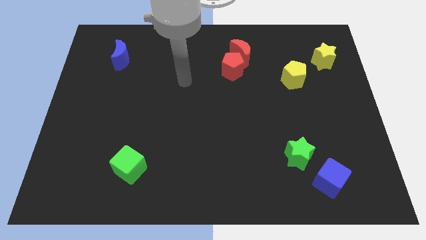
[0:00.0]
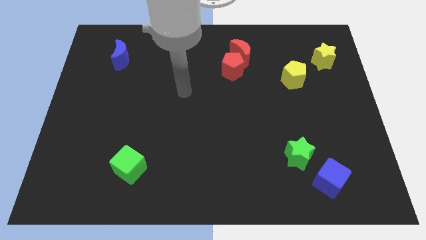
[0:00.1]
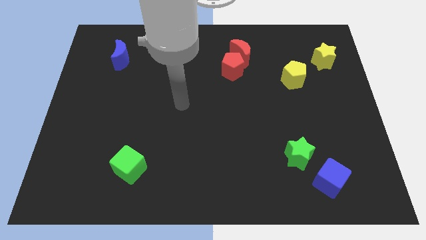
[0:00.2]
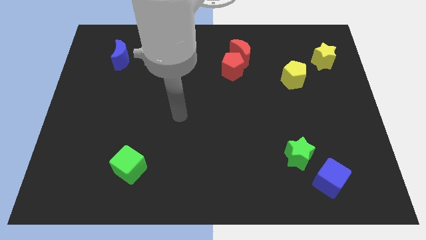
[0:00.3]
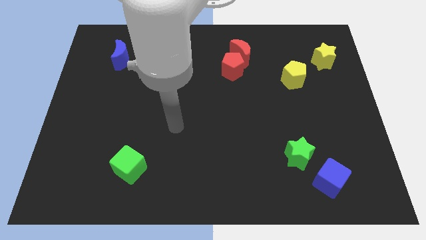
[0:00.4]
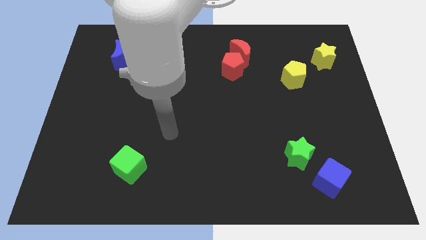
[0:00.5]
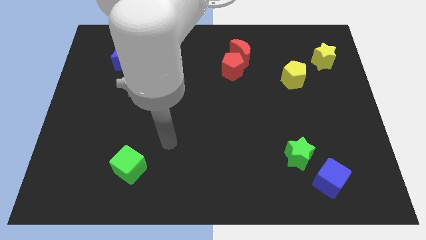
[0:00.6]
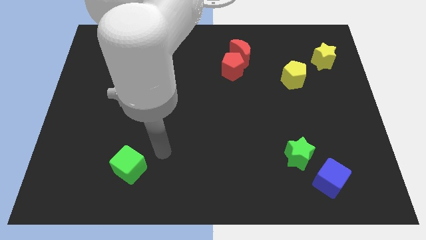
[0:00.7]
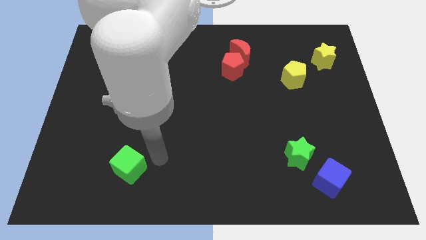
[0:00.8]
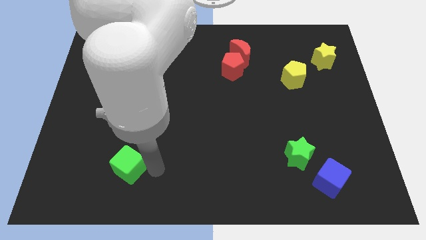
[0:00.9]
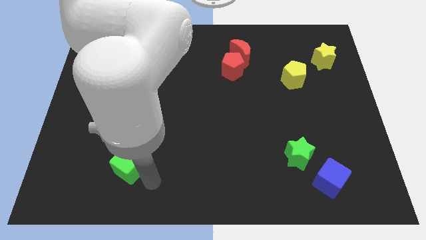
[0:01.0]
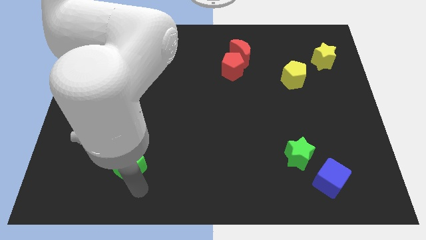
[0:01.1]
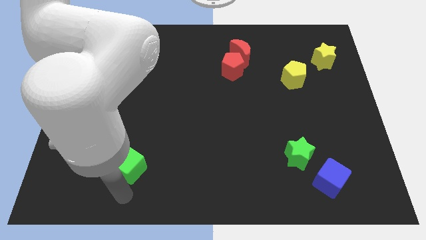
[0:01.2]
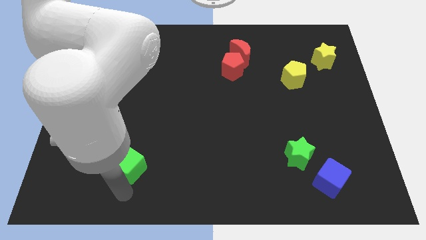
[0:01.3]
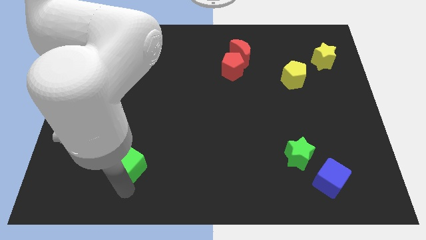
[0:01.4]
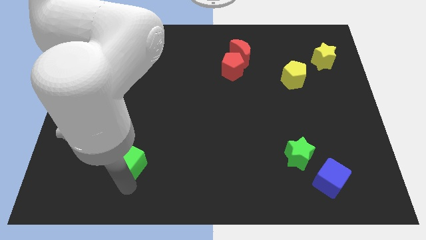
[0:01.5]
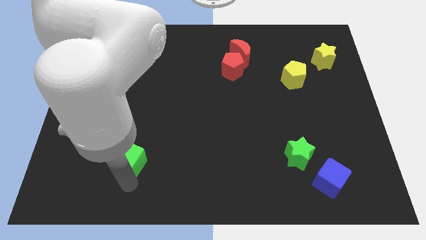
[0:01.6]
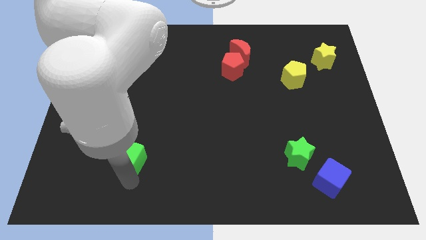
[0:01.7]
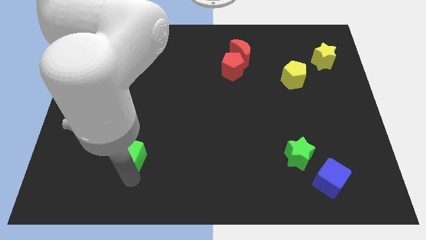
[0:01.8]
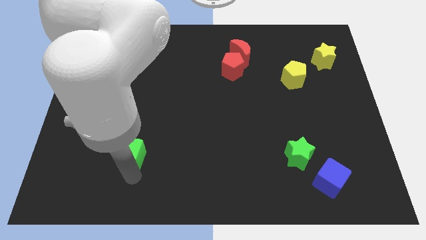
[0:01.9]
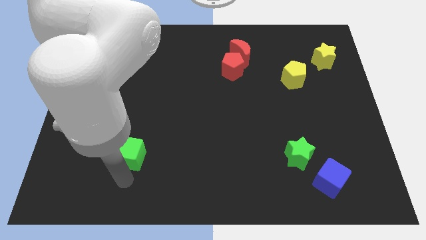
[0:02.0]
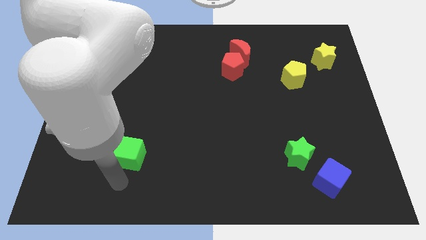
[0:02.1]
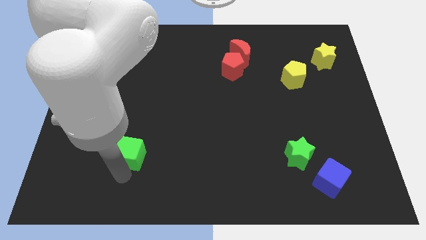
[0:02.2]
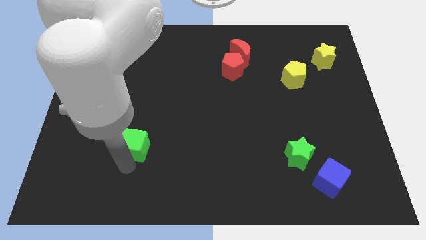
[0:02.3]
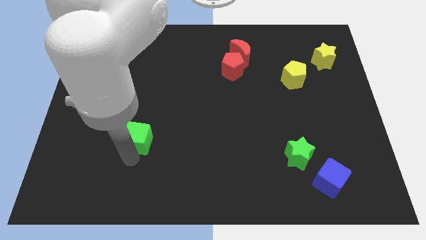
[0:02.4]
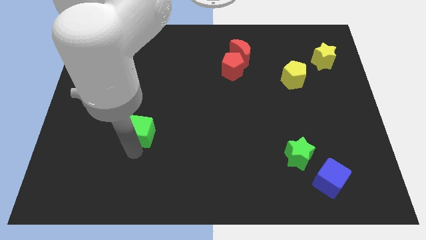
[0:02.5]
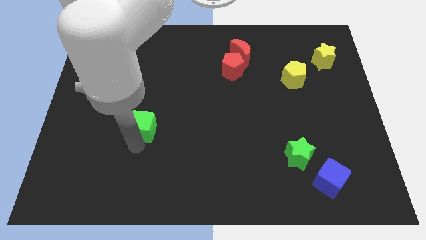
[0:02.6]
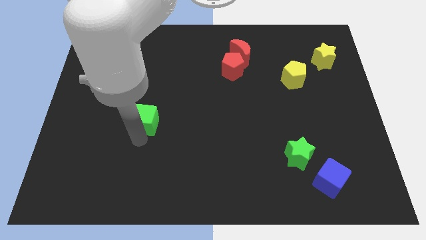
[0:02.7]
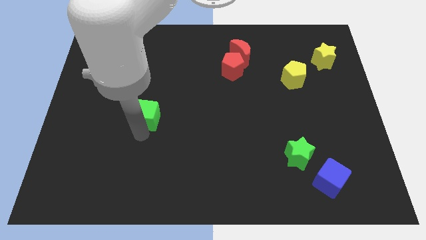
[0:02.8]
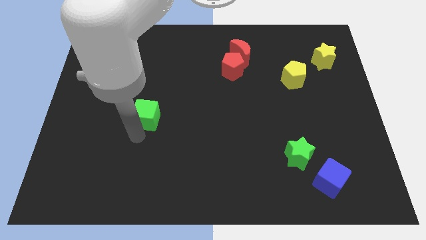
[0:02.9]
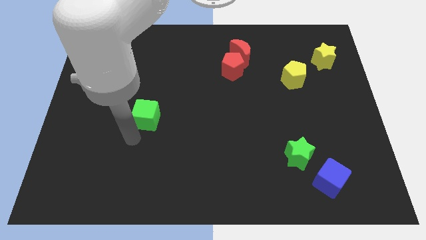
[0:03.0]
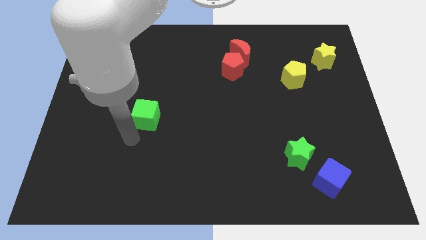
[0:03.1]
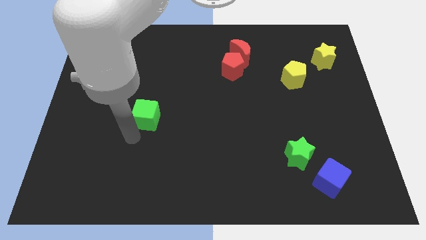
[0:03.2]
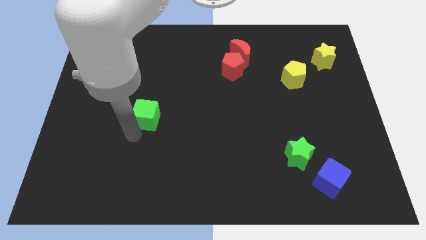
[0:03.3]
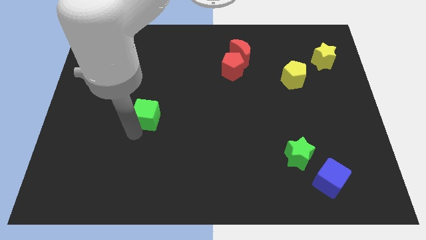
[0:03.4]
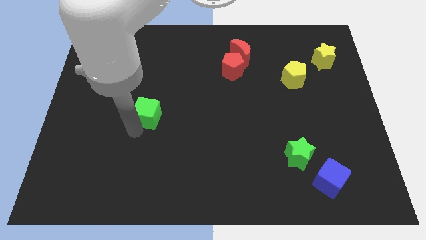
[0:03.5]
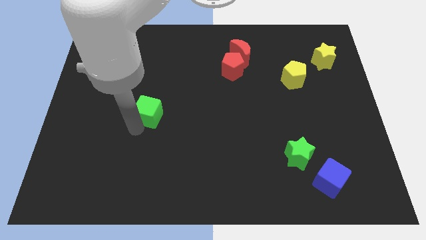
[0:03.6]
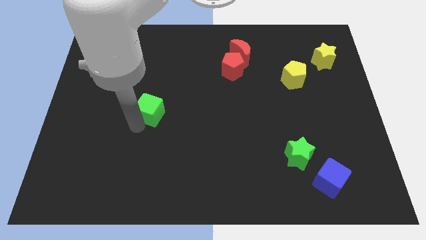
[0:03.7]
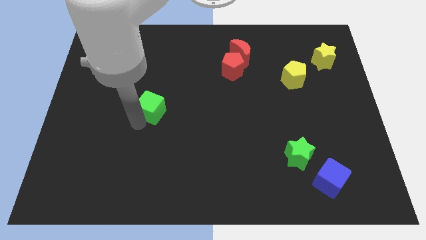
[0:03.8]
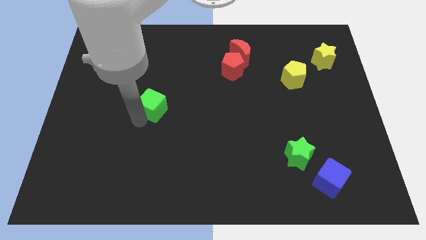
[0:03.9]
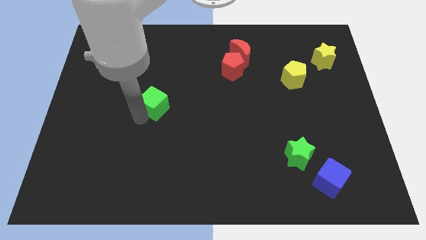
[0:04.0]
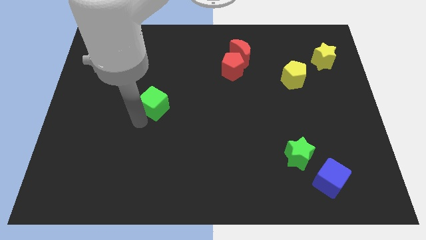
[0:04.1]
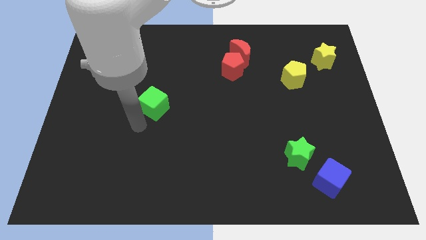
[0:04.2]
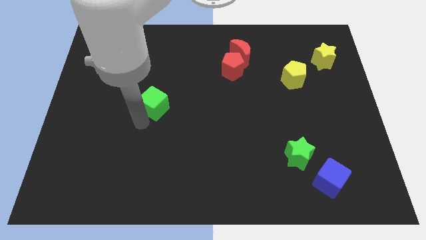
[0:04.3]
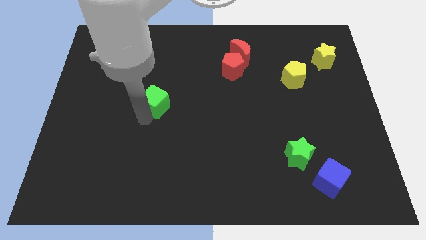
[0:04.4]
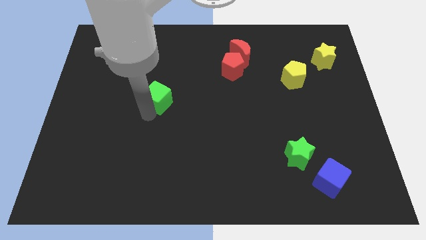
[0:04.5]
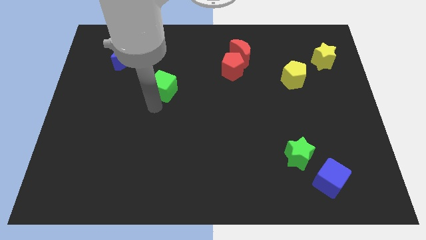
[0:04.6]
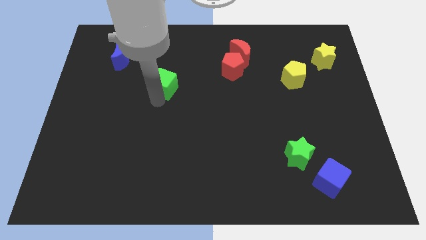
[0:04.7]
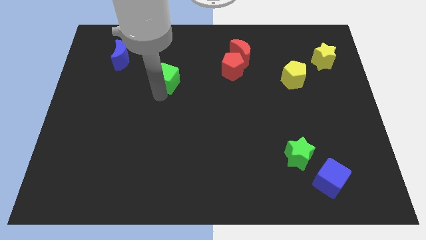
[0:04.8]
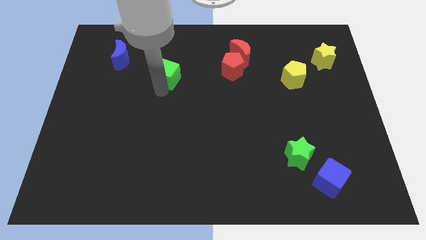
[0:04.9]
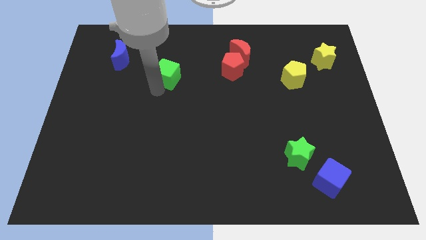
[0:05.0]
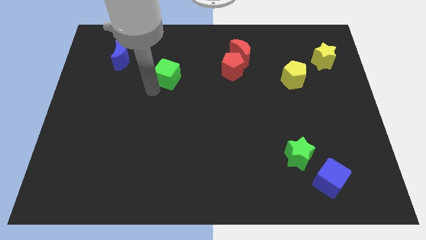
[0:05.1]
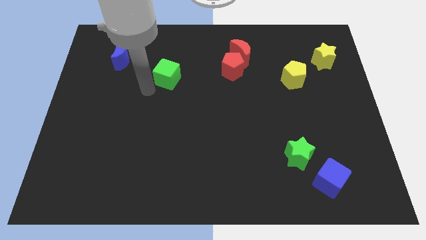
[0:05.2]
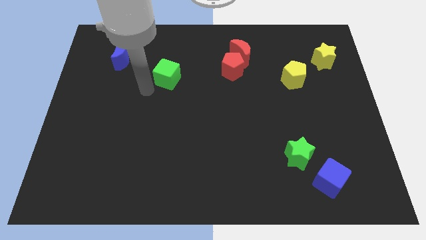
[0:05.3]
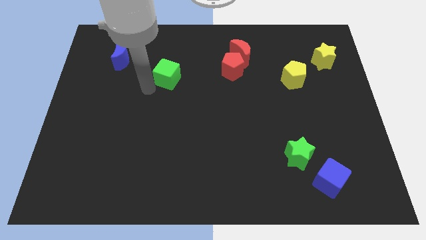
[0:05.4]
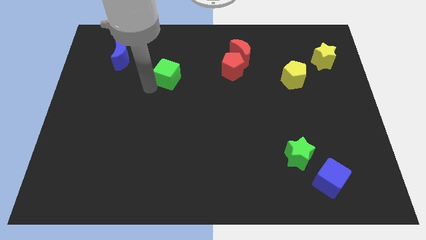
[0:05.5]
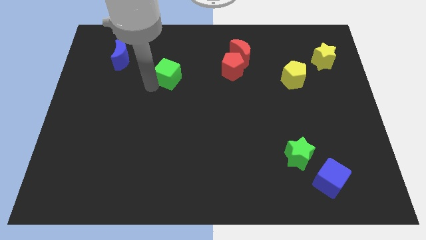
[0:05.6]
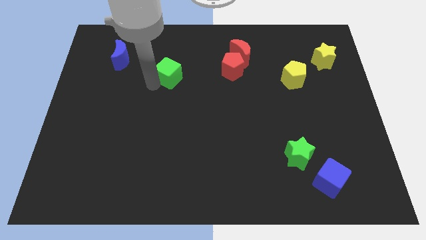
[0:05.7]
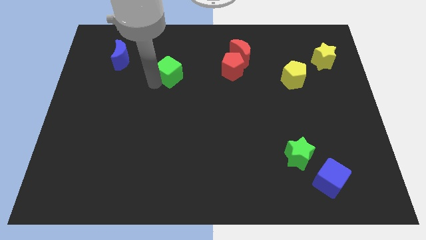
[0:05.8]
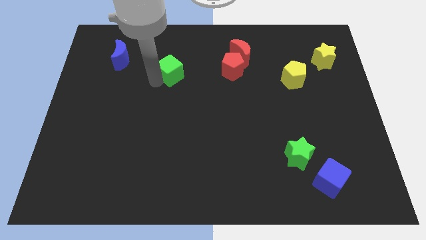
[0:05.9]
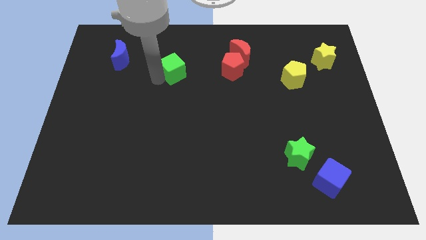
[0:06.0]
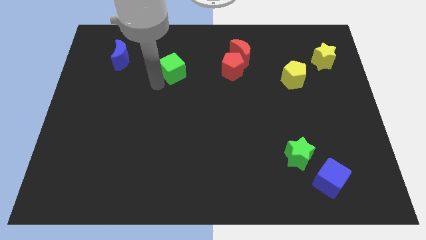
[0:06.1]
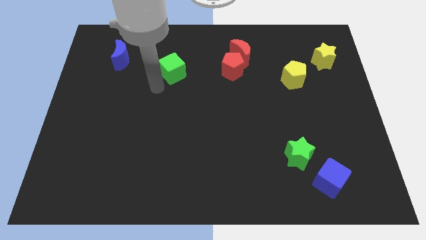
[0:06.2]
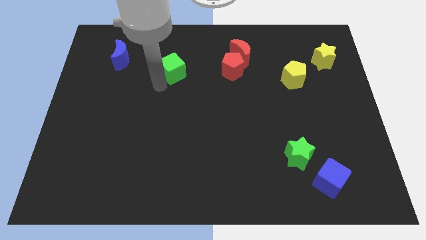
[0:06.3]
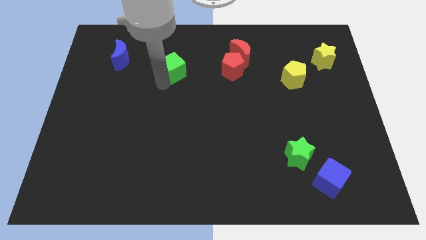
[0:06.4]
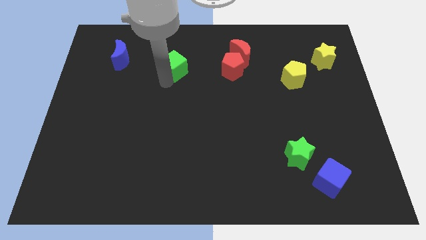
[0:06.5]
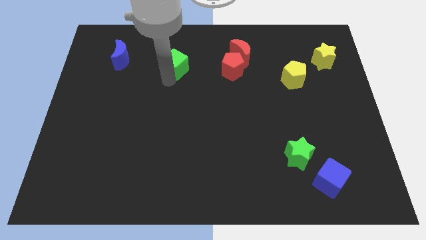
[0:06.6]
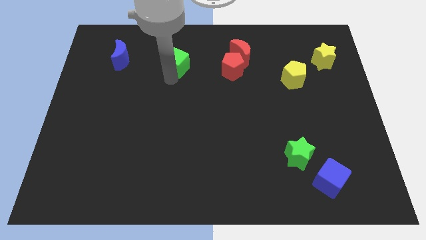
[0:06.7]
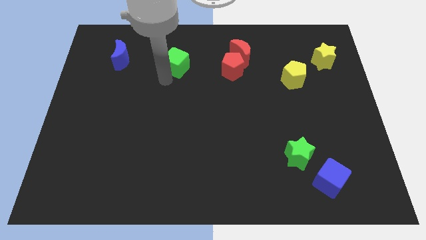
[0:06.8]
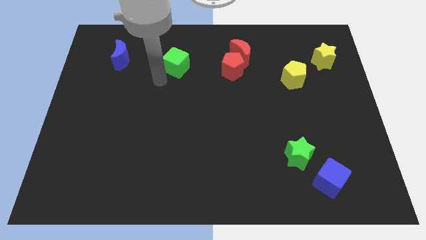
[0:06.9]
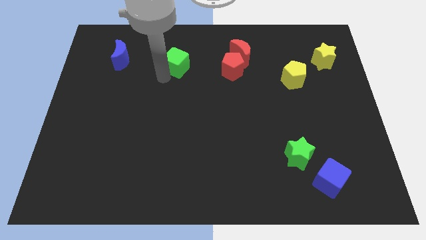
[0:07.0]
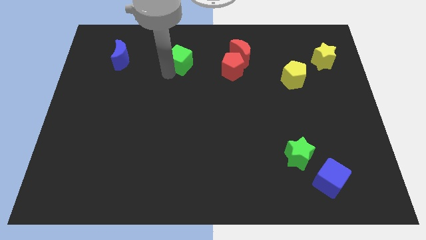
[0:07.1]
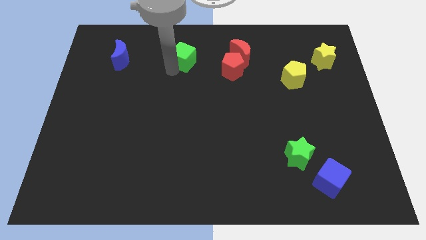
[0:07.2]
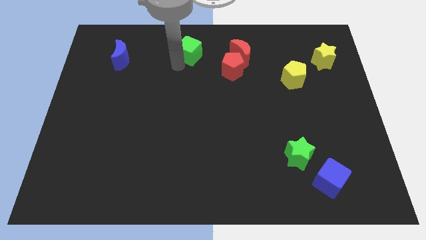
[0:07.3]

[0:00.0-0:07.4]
move the green cube to the top
